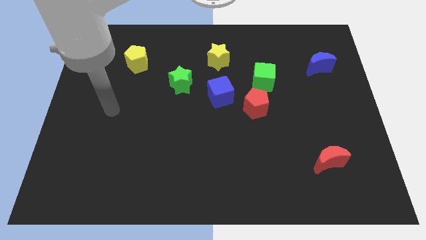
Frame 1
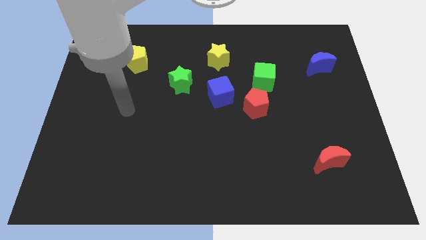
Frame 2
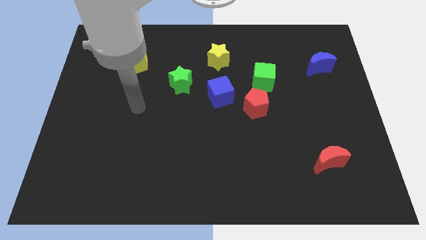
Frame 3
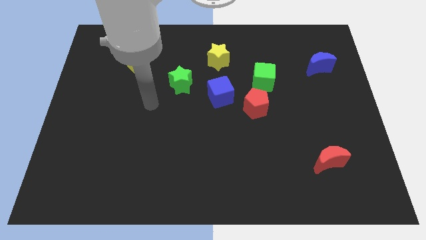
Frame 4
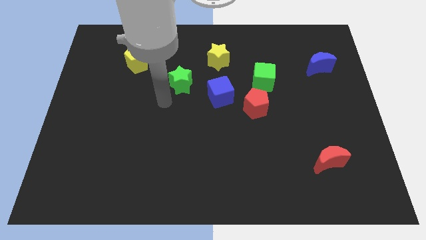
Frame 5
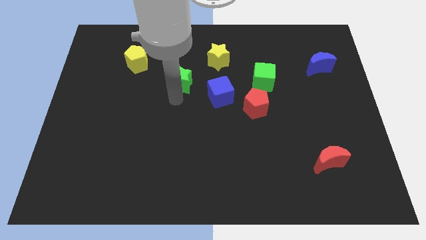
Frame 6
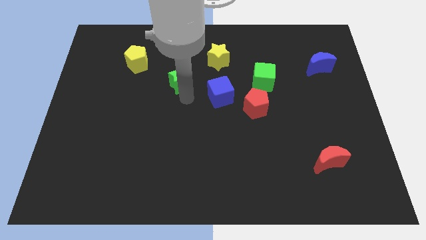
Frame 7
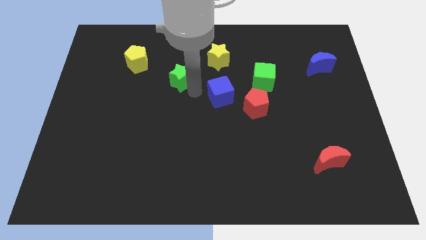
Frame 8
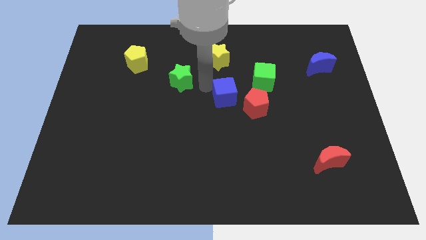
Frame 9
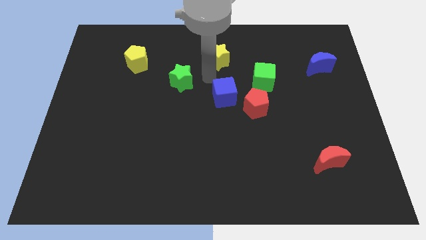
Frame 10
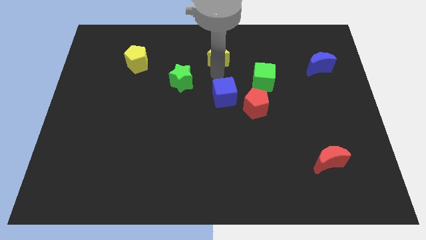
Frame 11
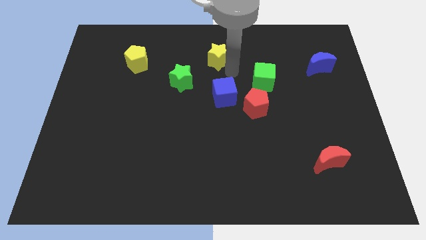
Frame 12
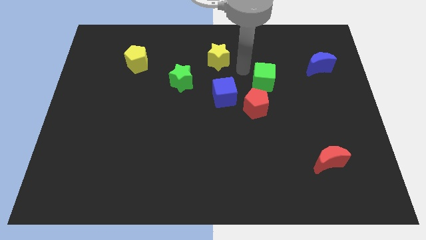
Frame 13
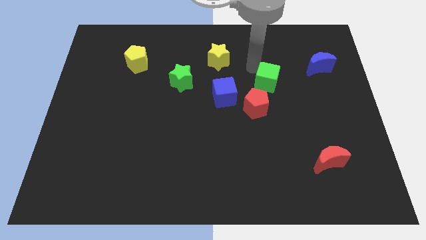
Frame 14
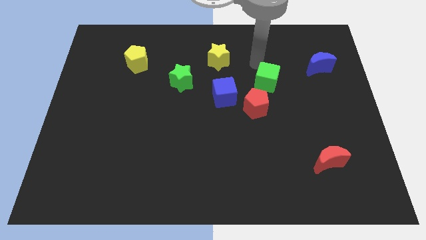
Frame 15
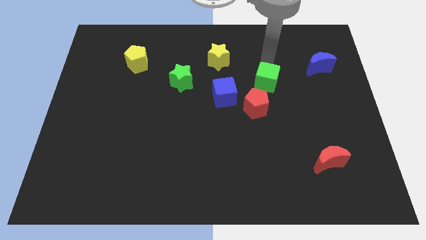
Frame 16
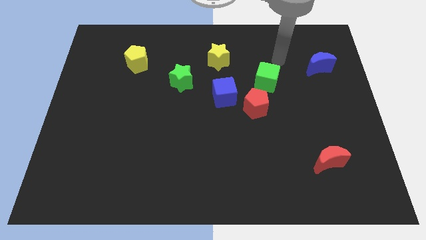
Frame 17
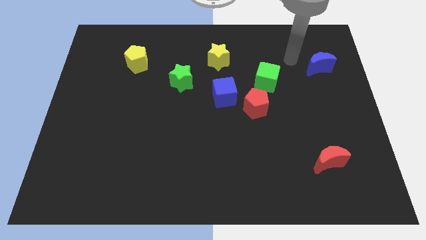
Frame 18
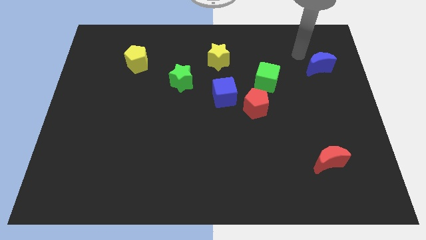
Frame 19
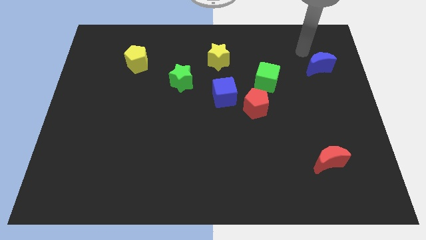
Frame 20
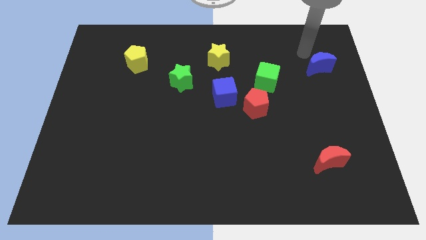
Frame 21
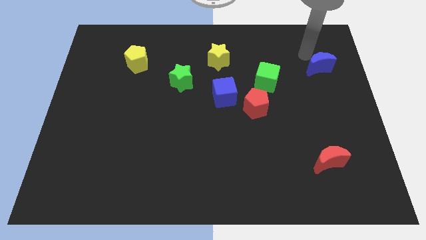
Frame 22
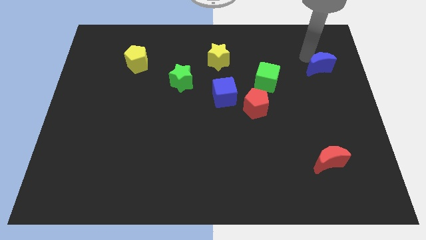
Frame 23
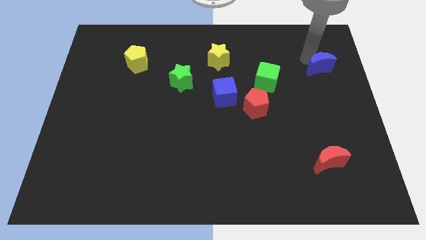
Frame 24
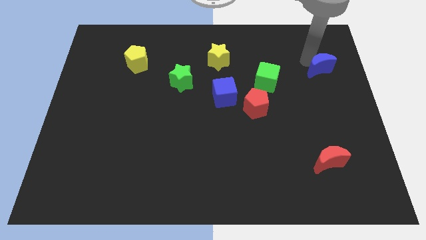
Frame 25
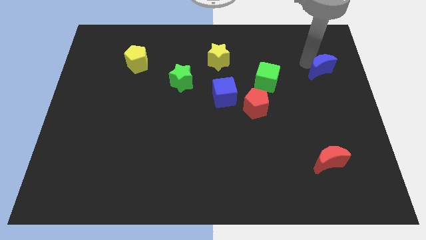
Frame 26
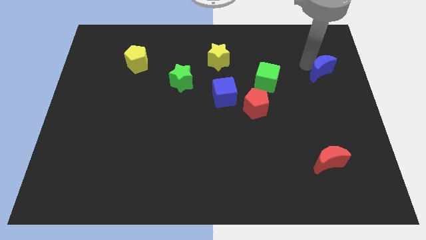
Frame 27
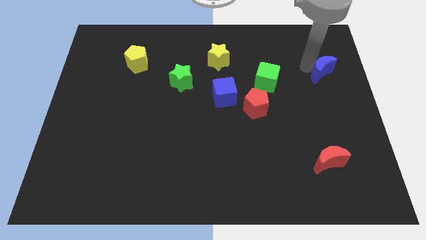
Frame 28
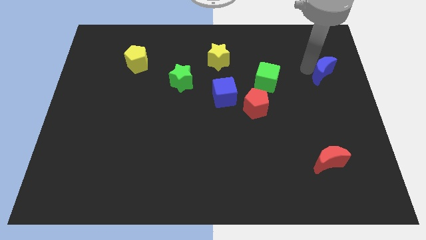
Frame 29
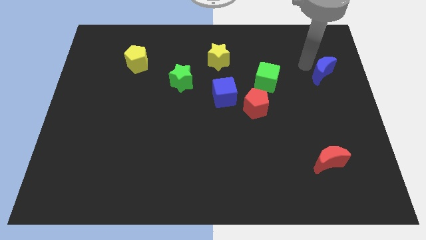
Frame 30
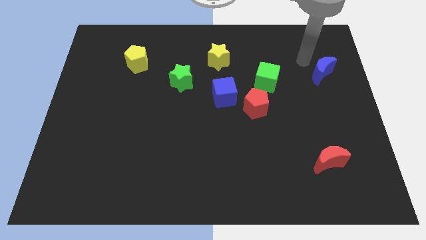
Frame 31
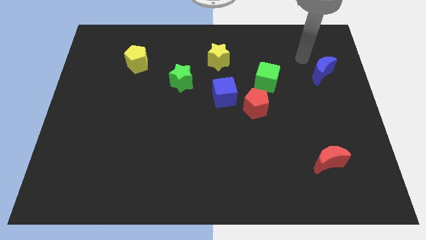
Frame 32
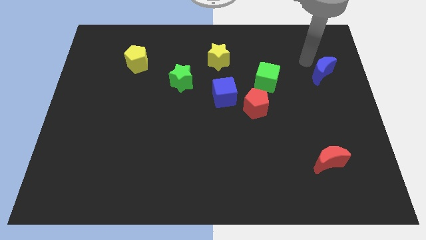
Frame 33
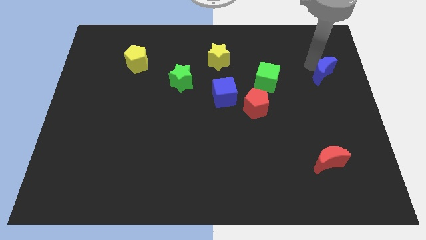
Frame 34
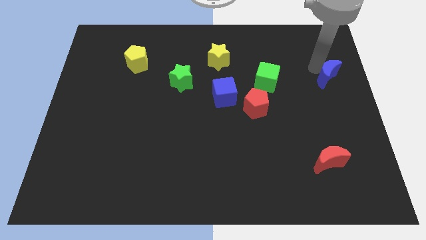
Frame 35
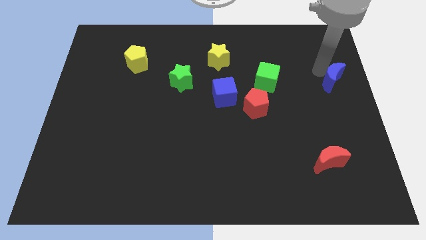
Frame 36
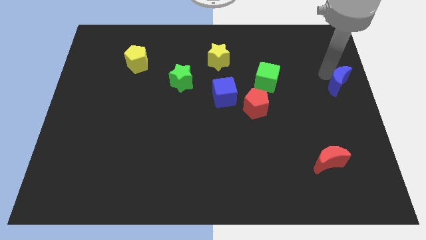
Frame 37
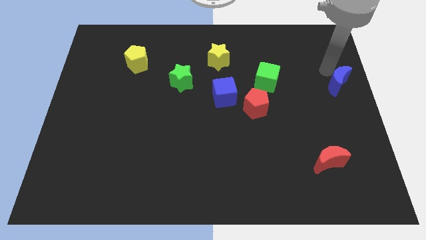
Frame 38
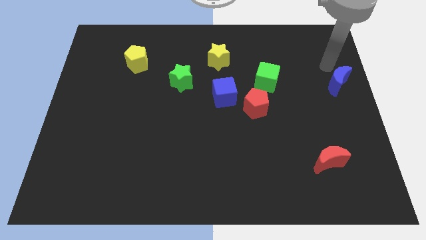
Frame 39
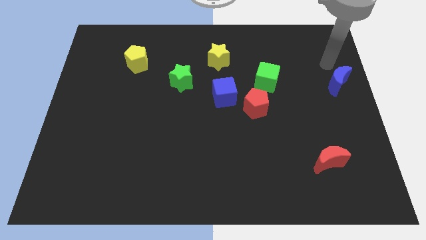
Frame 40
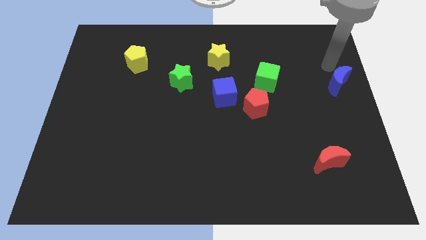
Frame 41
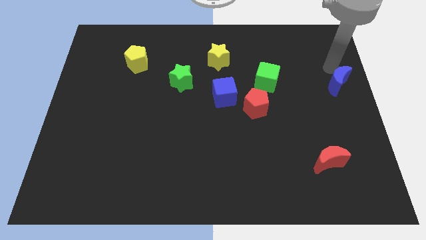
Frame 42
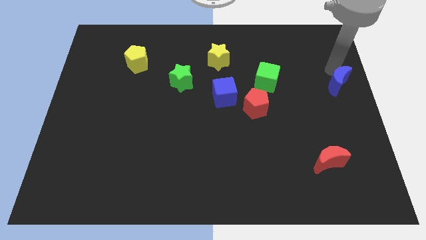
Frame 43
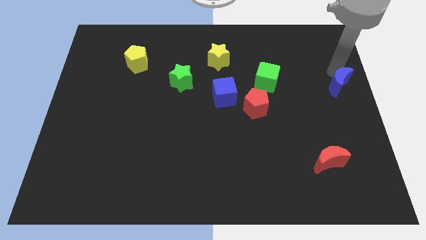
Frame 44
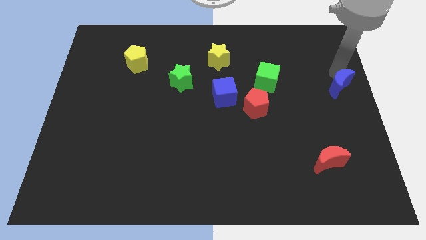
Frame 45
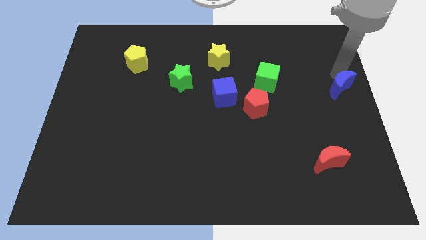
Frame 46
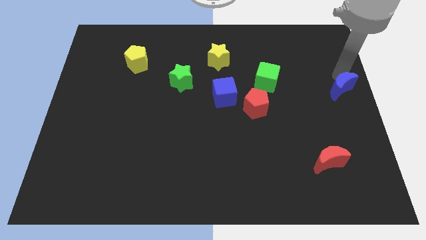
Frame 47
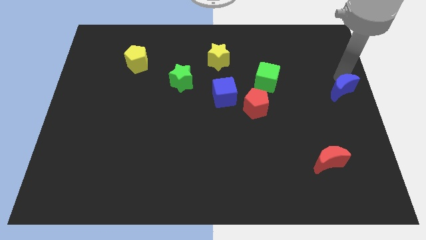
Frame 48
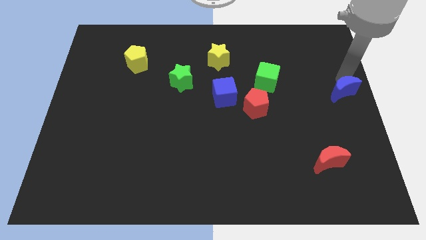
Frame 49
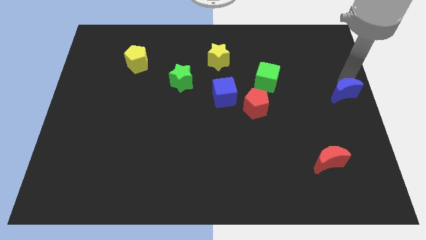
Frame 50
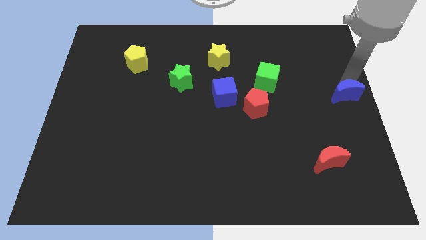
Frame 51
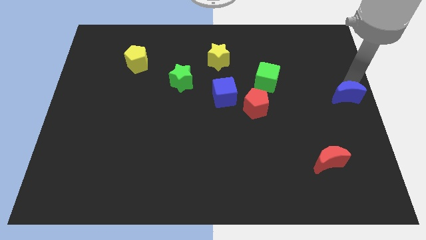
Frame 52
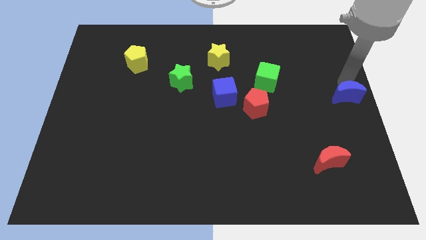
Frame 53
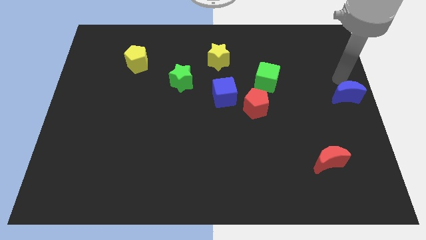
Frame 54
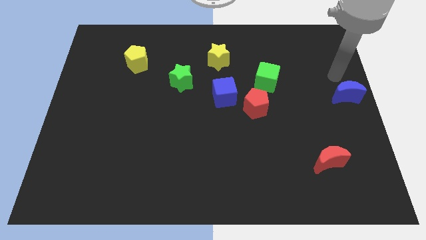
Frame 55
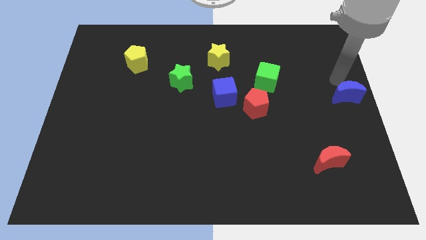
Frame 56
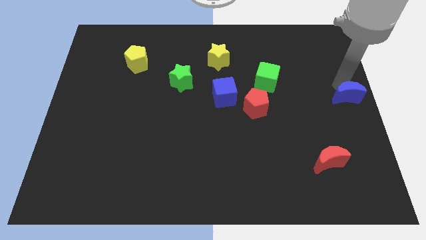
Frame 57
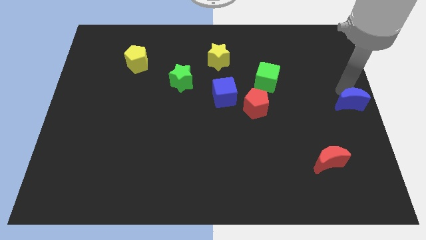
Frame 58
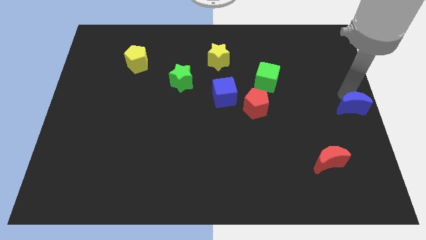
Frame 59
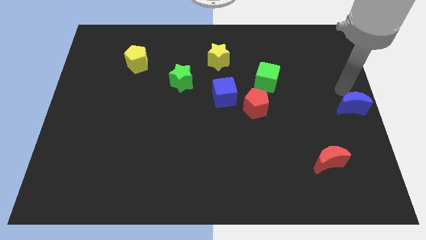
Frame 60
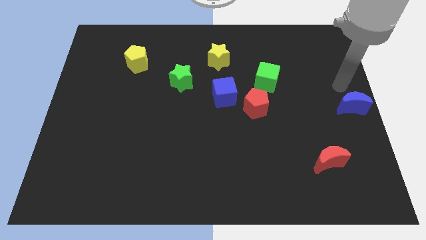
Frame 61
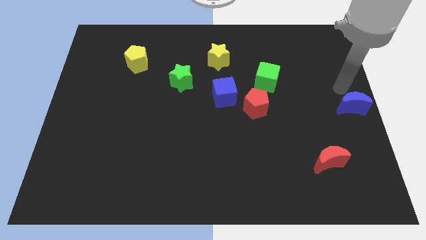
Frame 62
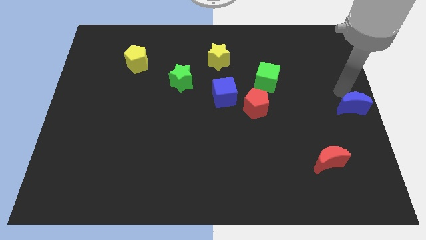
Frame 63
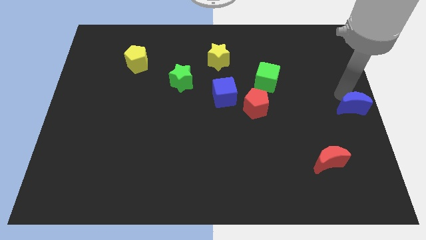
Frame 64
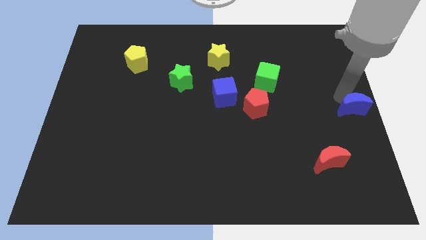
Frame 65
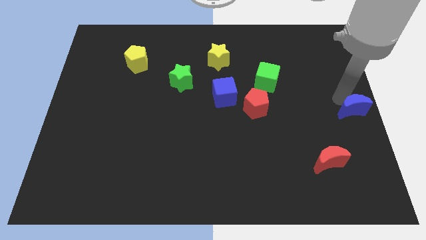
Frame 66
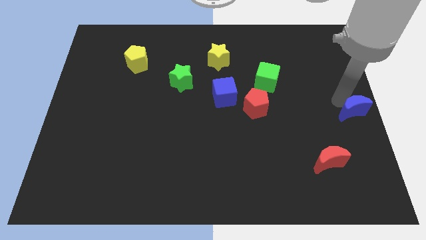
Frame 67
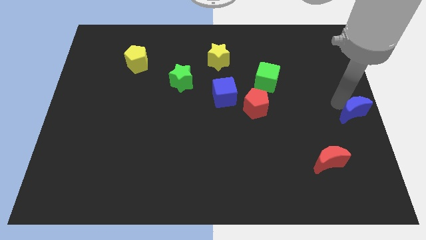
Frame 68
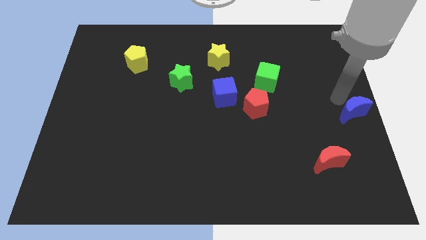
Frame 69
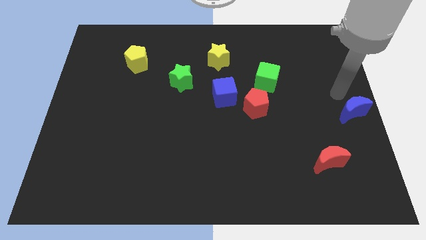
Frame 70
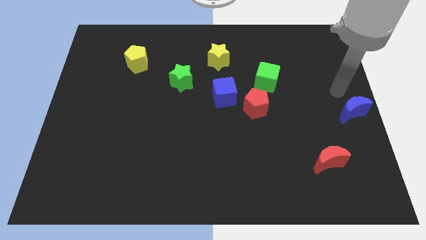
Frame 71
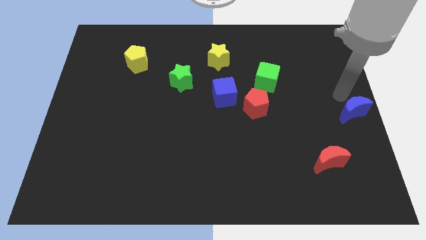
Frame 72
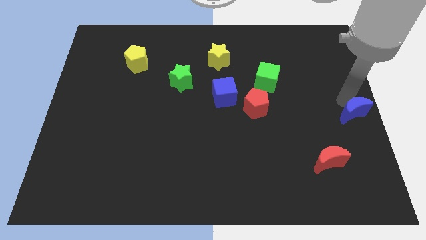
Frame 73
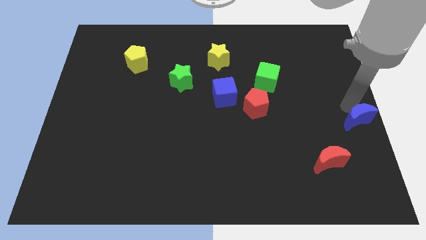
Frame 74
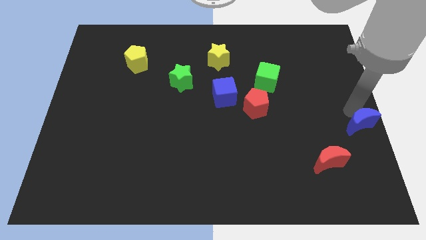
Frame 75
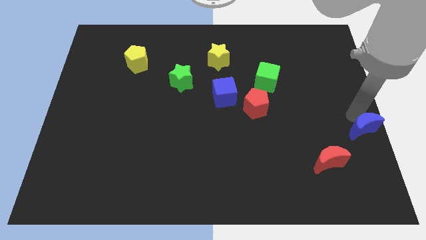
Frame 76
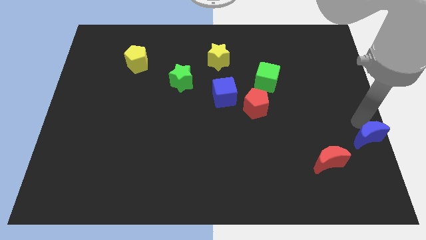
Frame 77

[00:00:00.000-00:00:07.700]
move the blue moon downwards

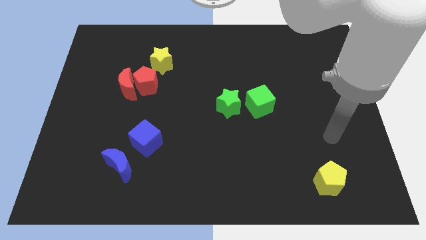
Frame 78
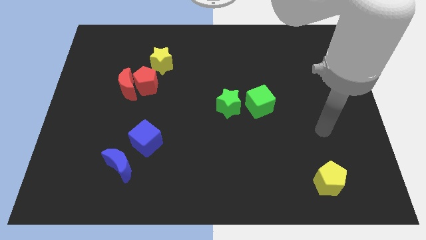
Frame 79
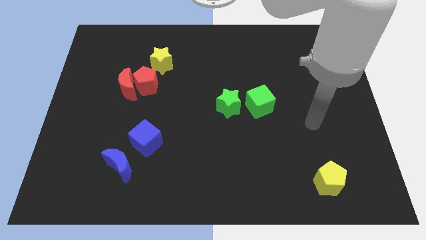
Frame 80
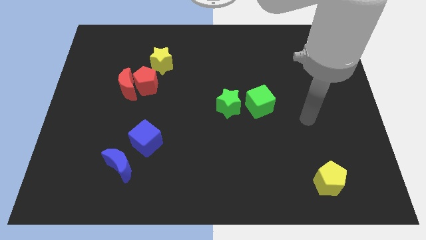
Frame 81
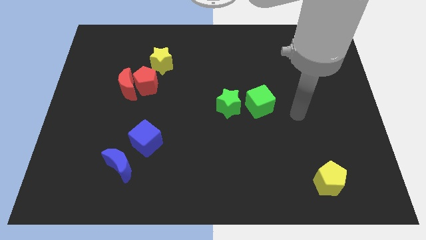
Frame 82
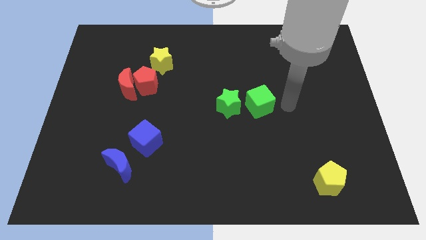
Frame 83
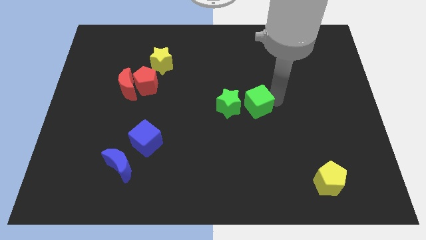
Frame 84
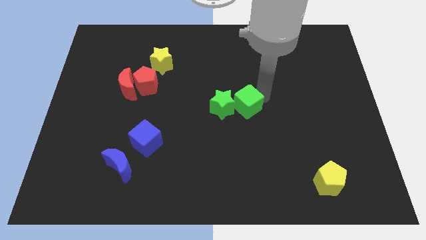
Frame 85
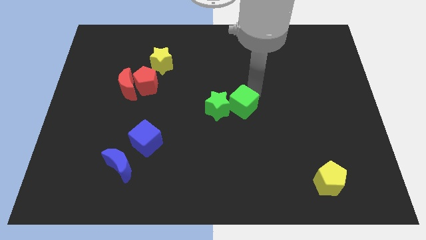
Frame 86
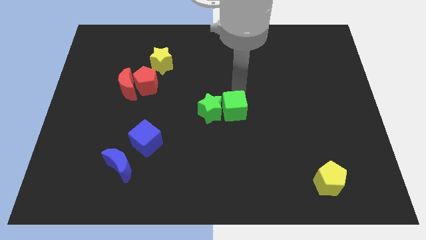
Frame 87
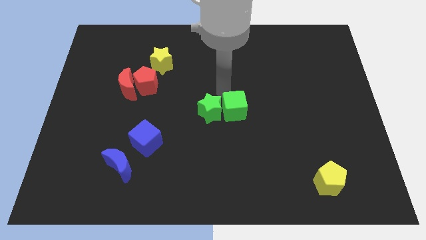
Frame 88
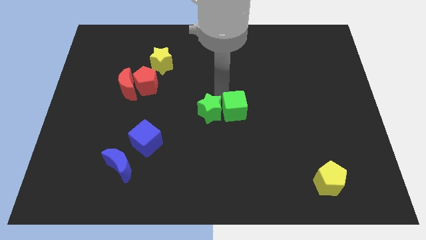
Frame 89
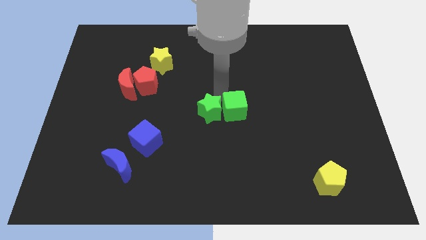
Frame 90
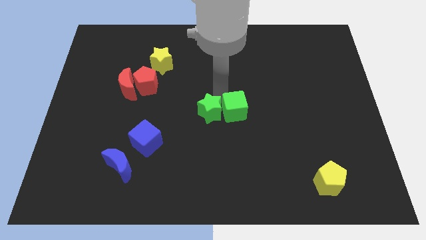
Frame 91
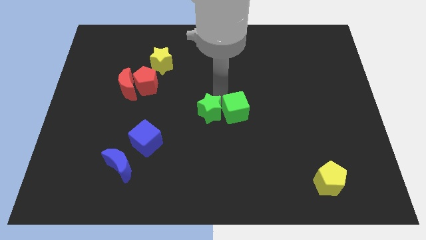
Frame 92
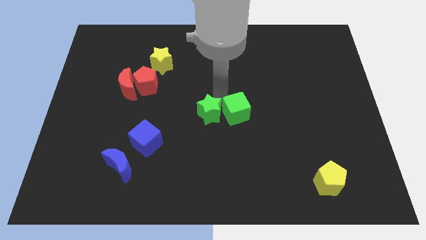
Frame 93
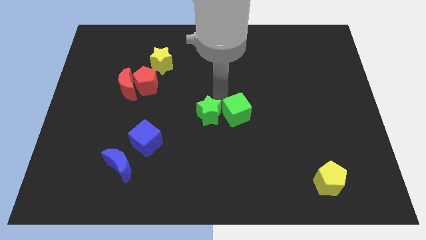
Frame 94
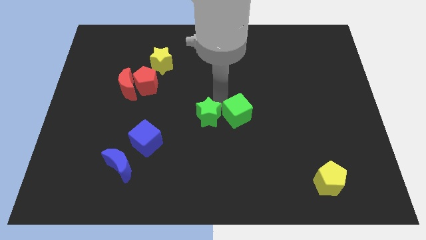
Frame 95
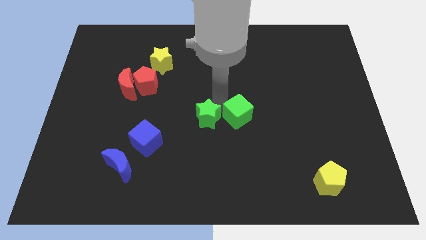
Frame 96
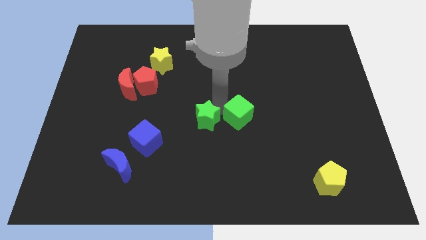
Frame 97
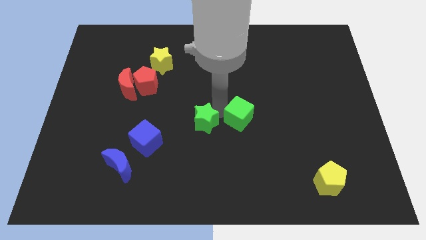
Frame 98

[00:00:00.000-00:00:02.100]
slide the green star downwards and to the left a little bit
